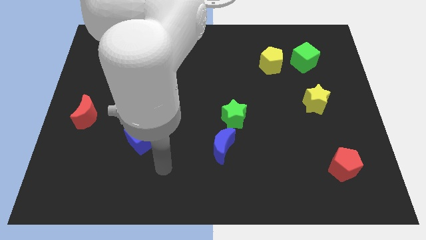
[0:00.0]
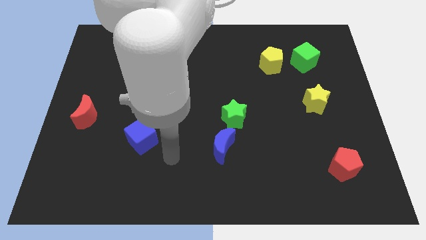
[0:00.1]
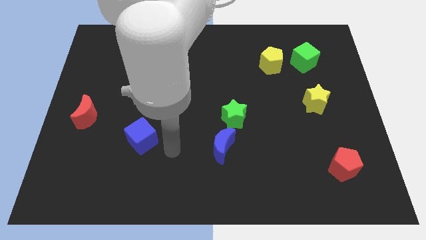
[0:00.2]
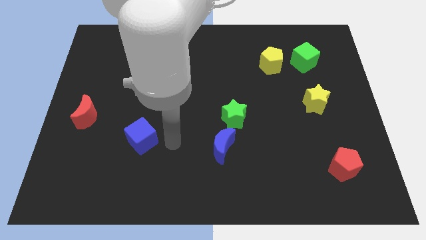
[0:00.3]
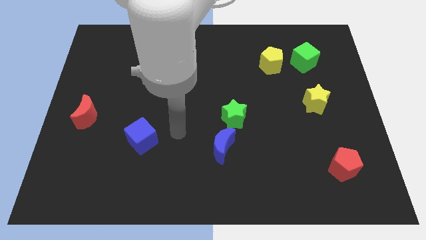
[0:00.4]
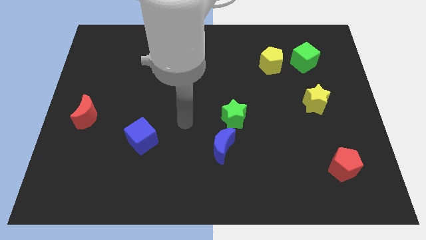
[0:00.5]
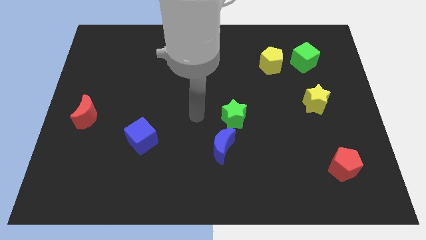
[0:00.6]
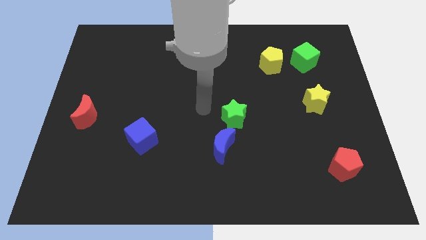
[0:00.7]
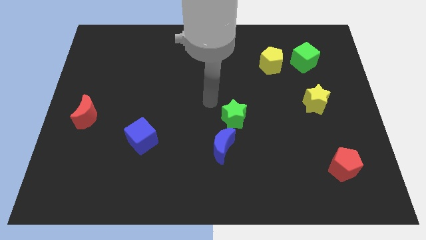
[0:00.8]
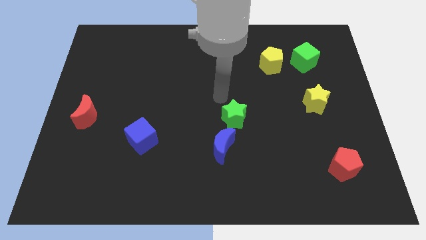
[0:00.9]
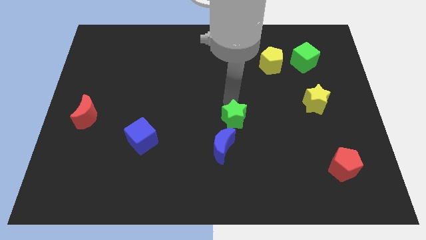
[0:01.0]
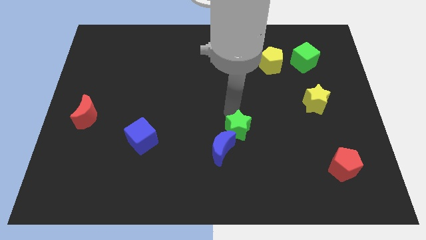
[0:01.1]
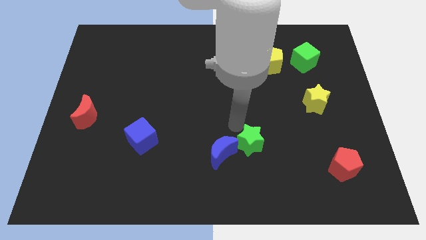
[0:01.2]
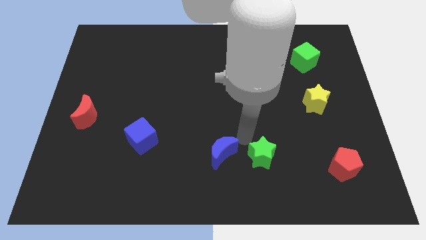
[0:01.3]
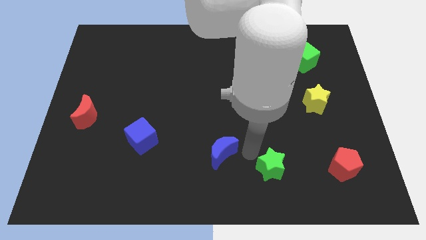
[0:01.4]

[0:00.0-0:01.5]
move the blue moon away from the green star

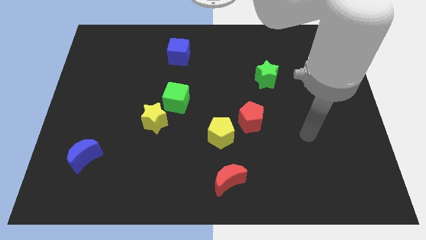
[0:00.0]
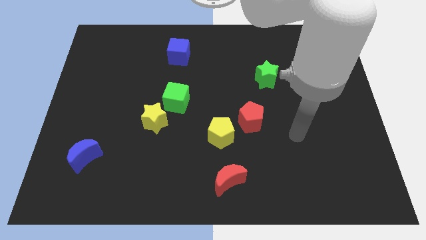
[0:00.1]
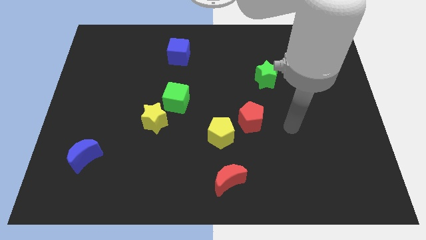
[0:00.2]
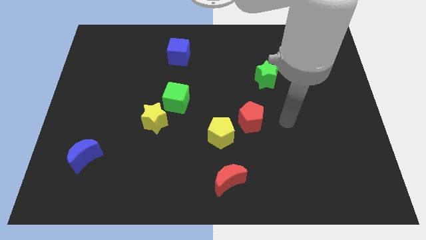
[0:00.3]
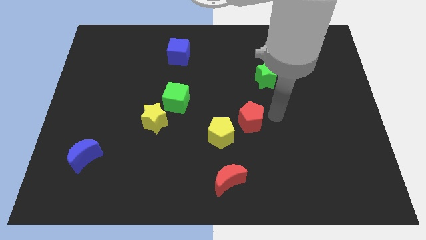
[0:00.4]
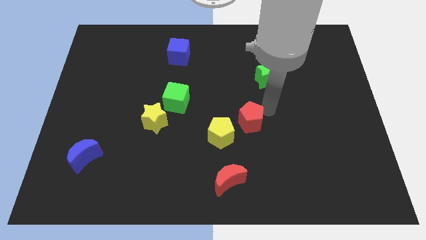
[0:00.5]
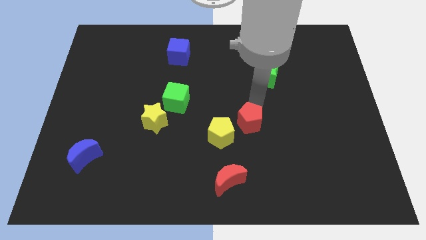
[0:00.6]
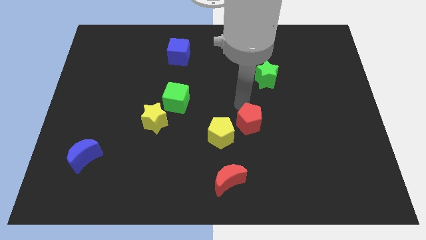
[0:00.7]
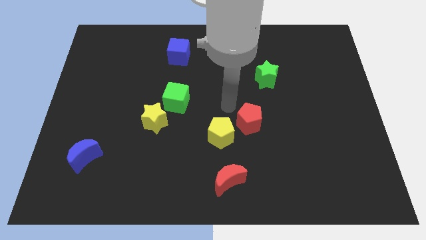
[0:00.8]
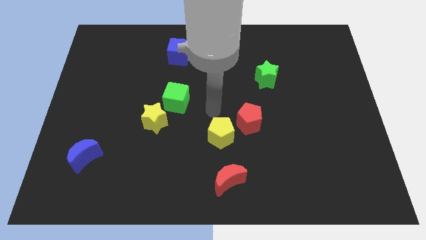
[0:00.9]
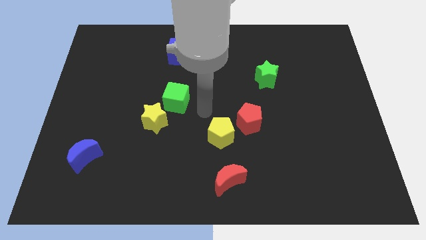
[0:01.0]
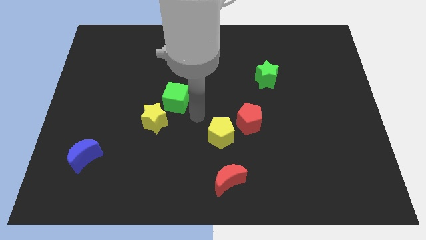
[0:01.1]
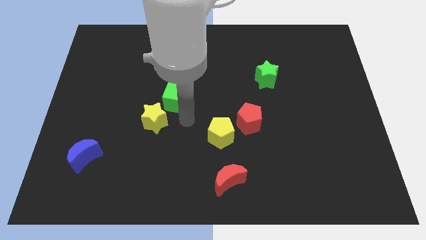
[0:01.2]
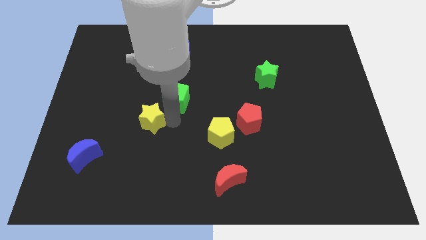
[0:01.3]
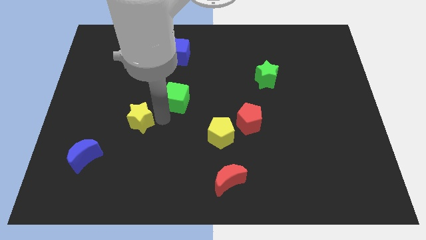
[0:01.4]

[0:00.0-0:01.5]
pull the green cube apart from the yellow star

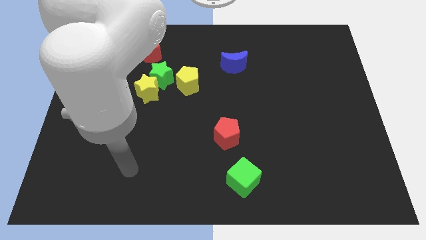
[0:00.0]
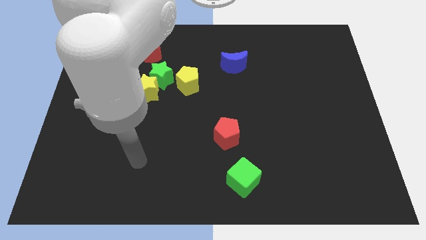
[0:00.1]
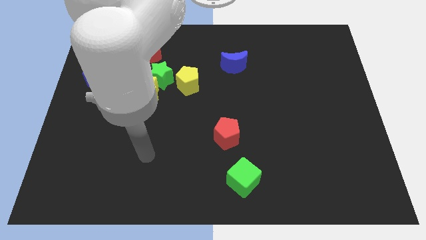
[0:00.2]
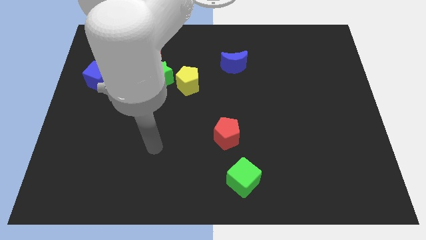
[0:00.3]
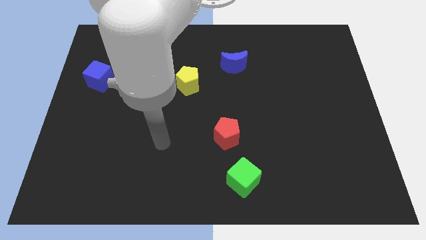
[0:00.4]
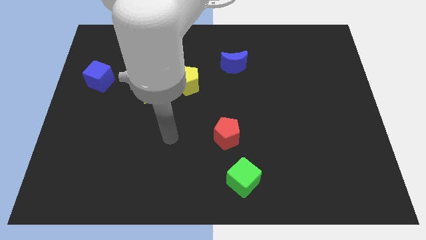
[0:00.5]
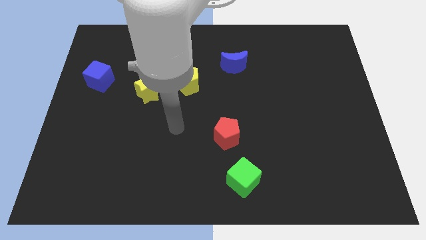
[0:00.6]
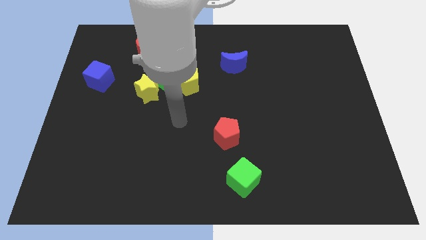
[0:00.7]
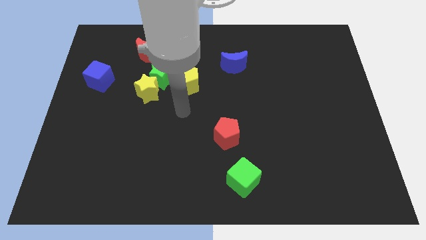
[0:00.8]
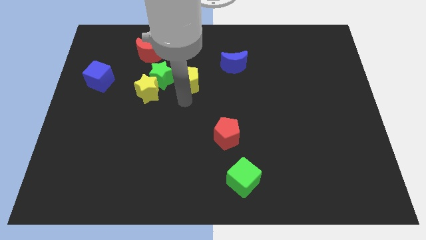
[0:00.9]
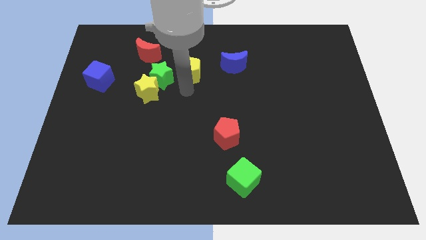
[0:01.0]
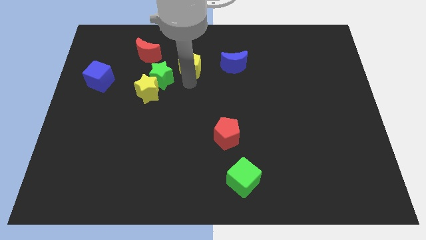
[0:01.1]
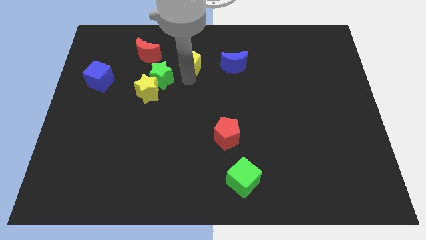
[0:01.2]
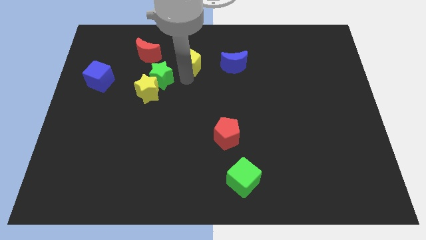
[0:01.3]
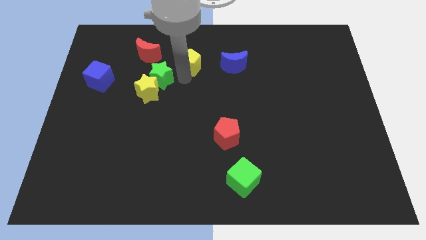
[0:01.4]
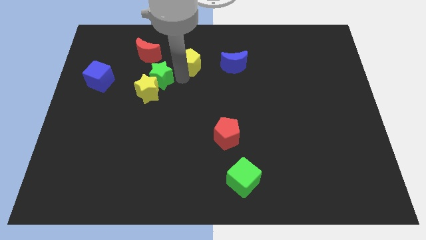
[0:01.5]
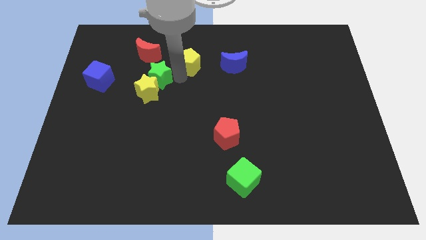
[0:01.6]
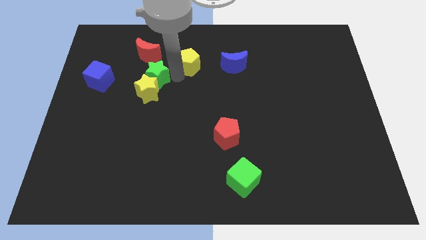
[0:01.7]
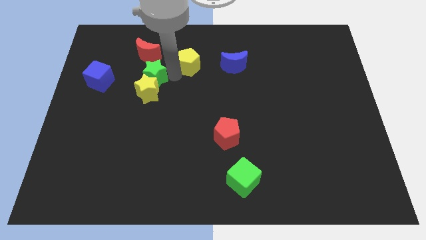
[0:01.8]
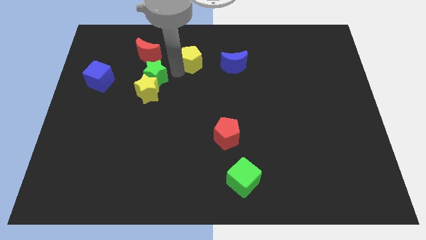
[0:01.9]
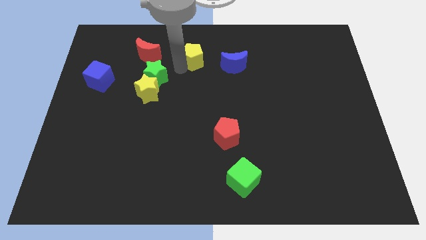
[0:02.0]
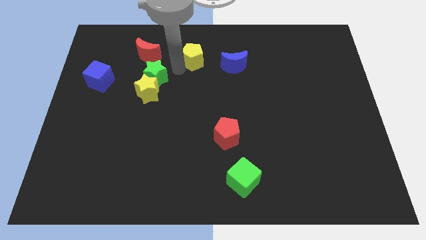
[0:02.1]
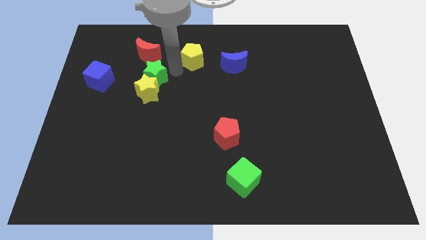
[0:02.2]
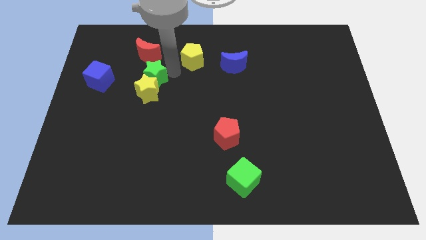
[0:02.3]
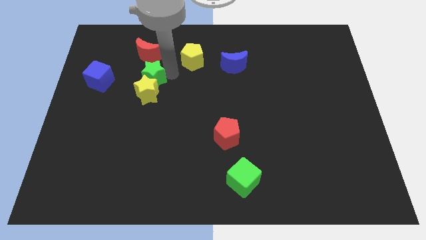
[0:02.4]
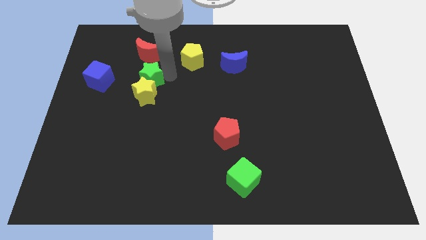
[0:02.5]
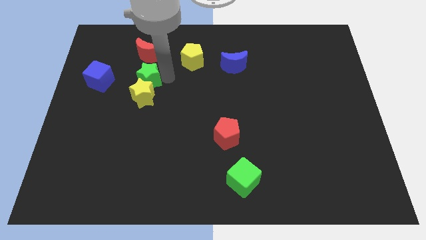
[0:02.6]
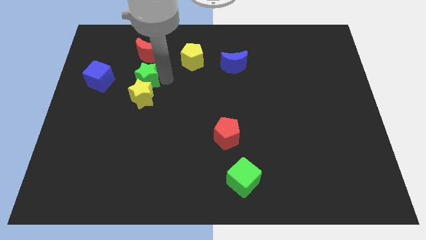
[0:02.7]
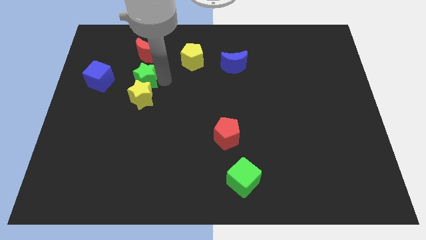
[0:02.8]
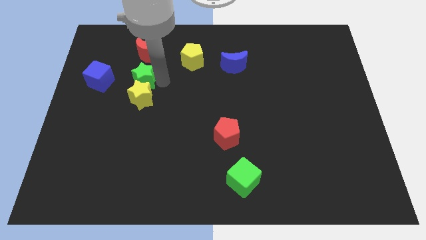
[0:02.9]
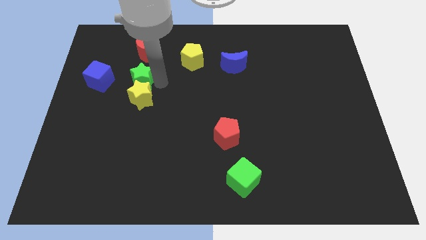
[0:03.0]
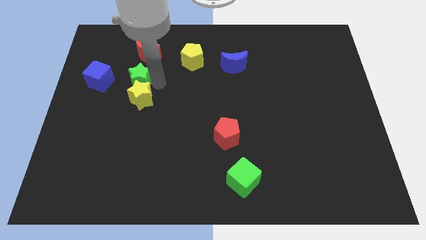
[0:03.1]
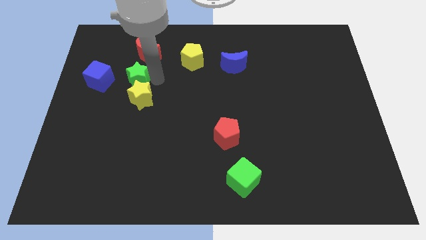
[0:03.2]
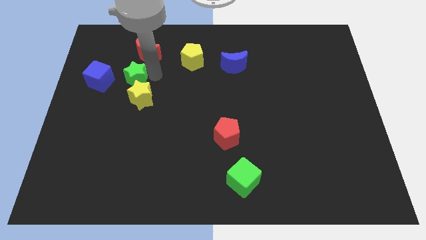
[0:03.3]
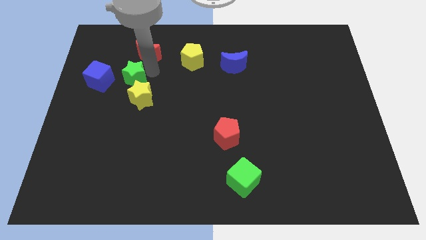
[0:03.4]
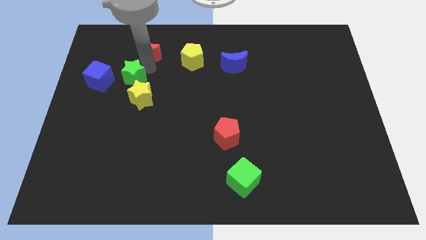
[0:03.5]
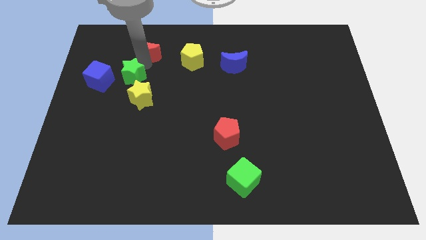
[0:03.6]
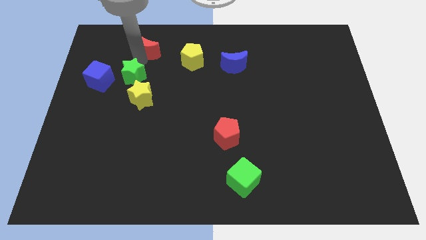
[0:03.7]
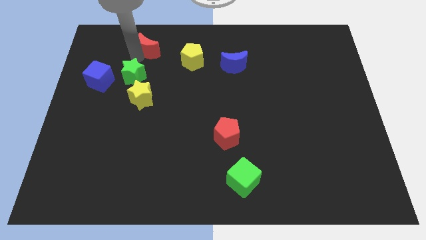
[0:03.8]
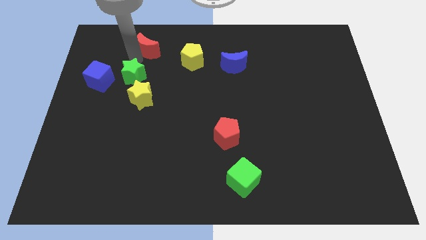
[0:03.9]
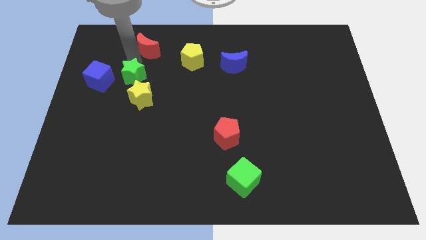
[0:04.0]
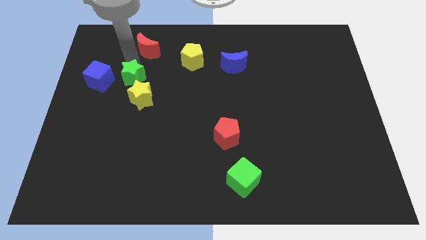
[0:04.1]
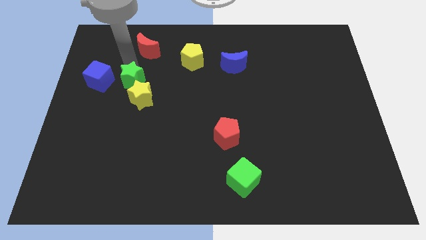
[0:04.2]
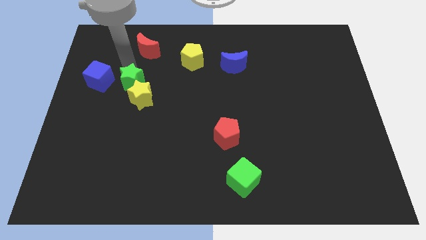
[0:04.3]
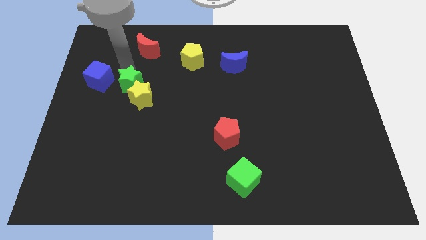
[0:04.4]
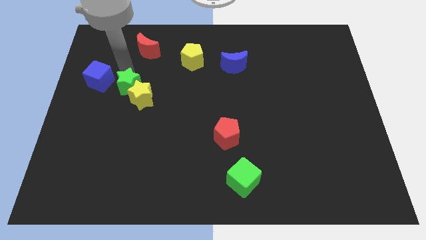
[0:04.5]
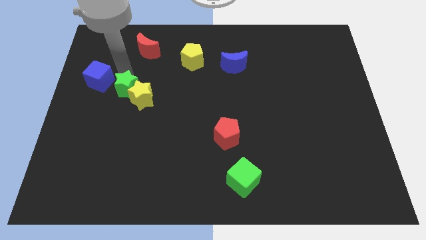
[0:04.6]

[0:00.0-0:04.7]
separate the green star from the yellow star, yellow pentagon, and red moon

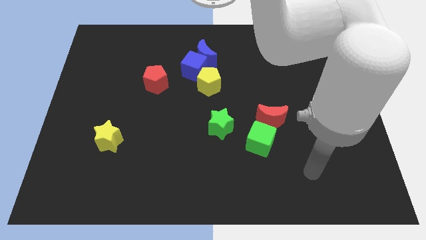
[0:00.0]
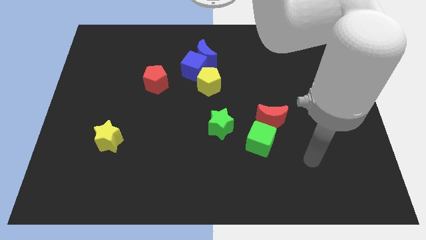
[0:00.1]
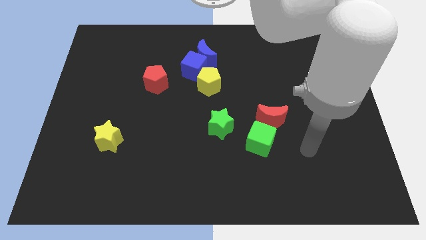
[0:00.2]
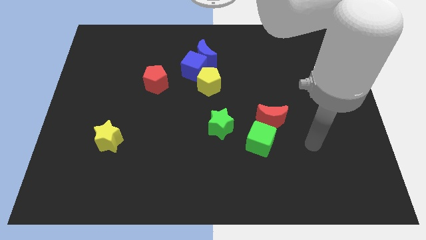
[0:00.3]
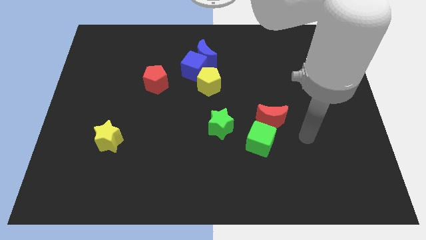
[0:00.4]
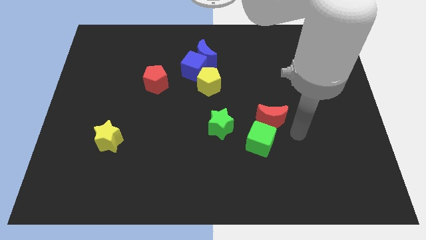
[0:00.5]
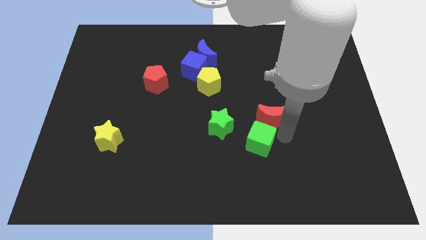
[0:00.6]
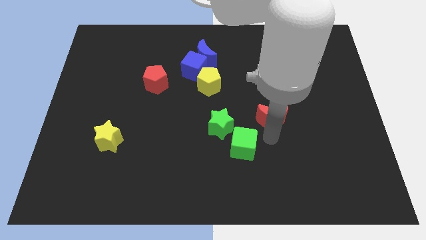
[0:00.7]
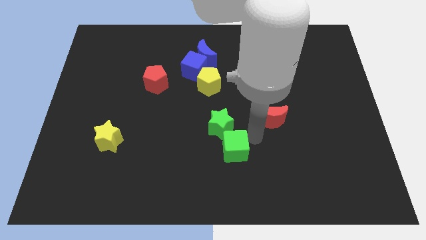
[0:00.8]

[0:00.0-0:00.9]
separate the red moon from the green cube

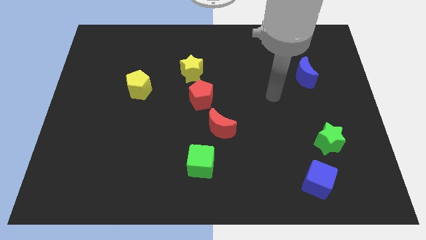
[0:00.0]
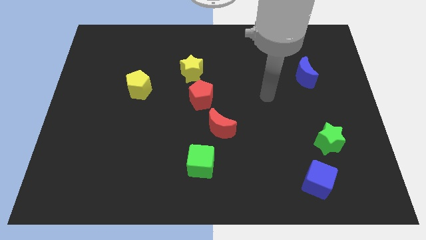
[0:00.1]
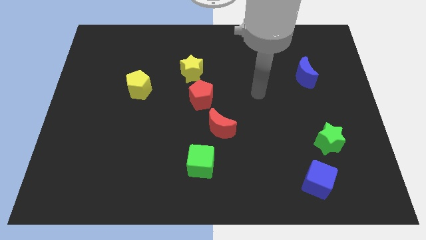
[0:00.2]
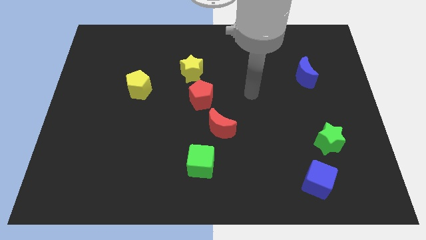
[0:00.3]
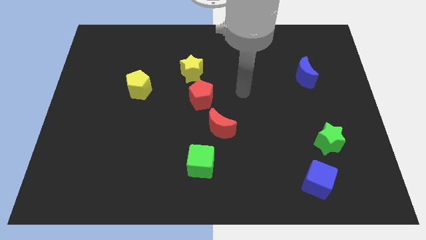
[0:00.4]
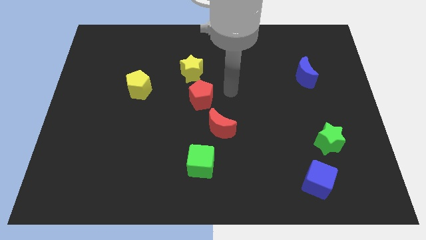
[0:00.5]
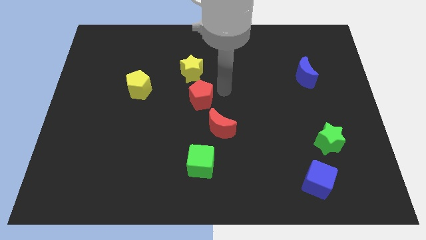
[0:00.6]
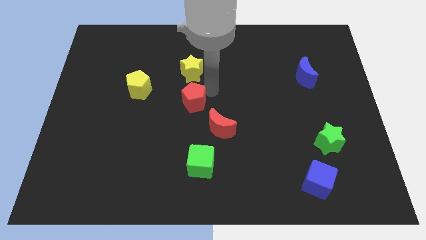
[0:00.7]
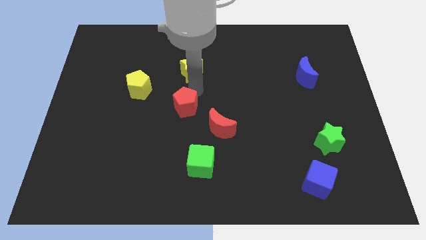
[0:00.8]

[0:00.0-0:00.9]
pull the yellow star apart from the red pentagon
